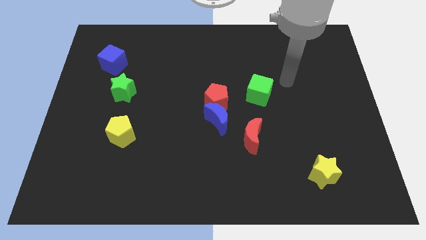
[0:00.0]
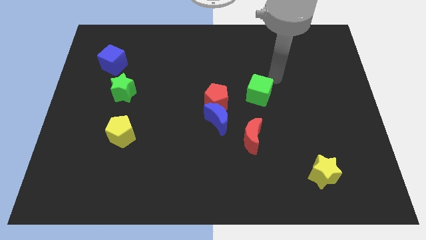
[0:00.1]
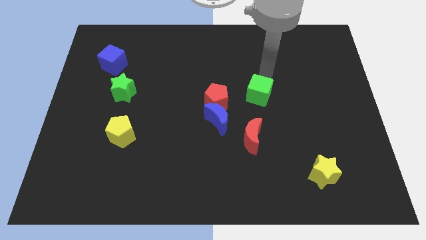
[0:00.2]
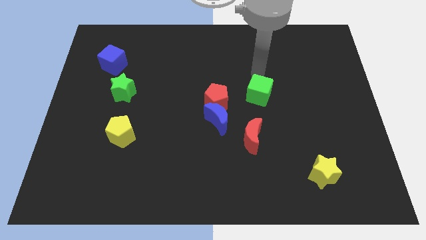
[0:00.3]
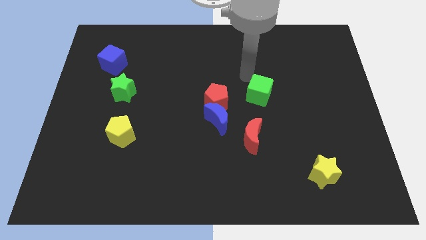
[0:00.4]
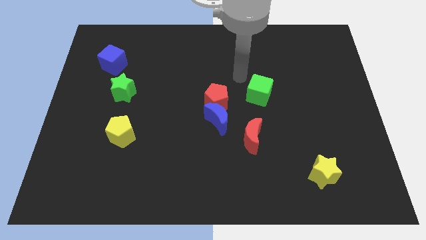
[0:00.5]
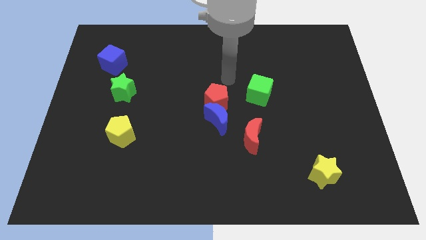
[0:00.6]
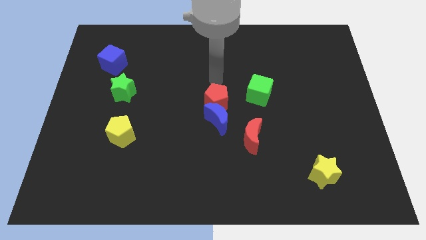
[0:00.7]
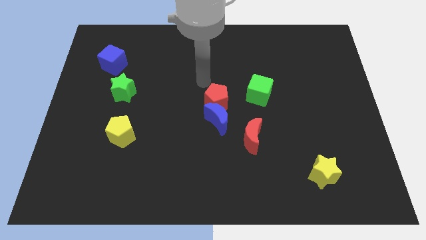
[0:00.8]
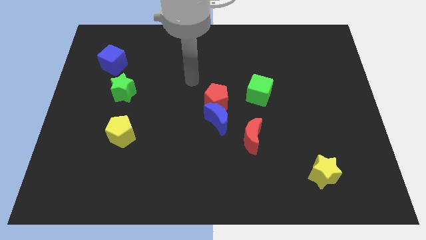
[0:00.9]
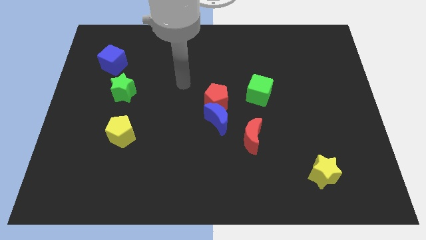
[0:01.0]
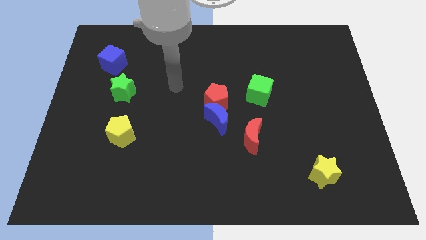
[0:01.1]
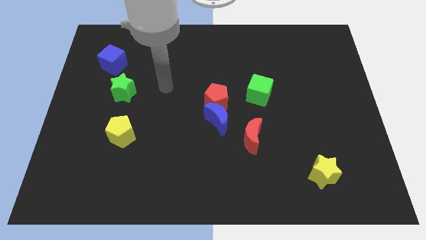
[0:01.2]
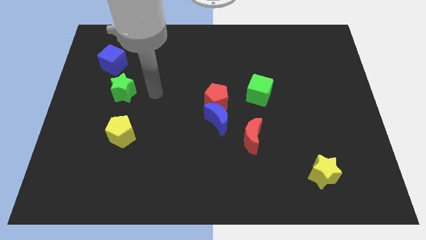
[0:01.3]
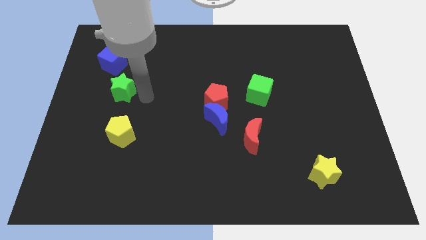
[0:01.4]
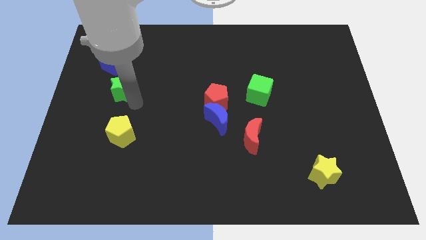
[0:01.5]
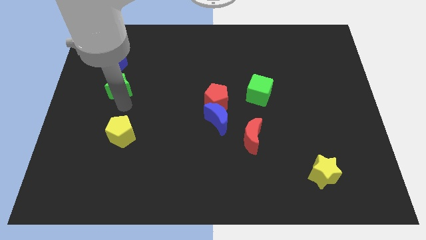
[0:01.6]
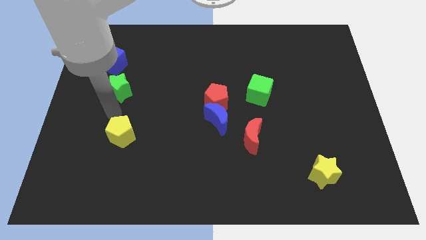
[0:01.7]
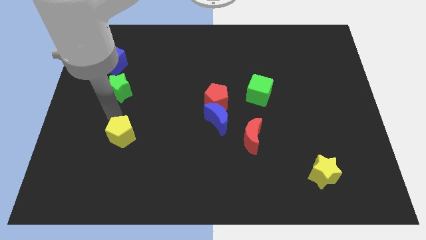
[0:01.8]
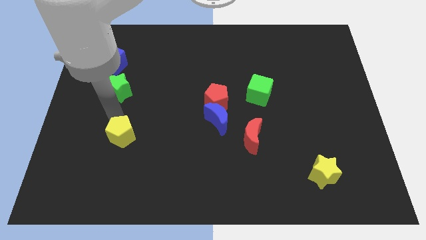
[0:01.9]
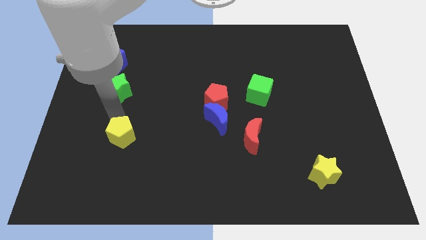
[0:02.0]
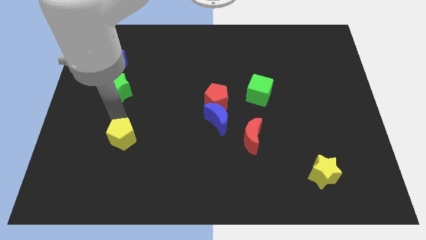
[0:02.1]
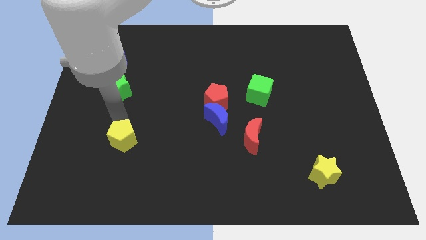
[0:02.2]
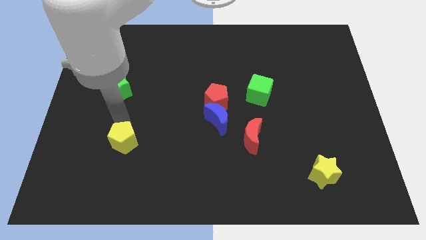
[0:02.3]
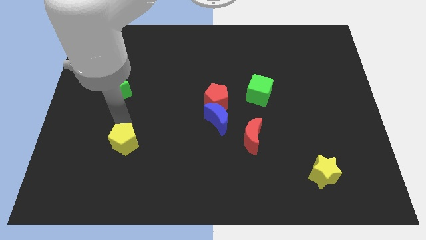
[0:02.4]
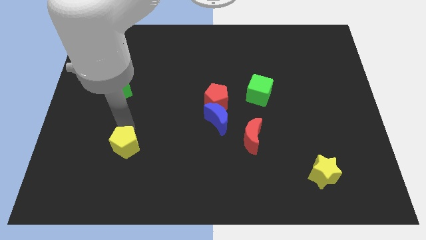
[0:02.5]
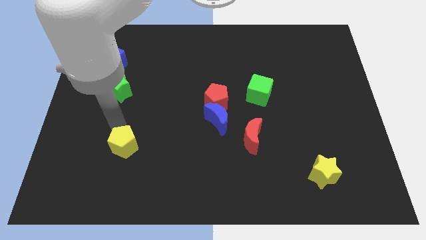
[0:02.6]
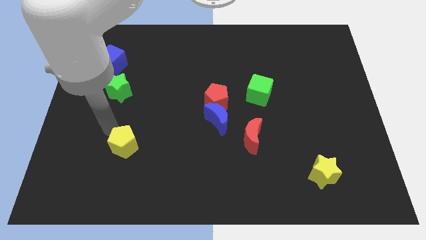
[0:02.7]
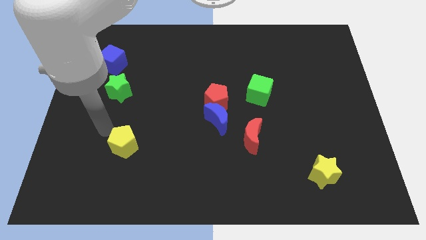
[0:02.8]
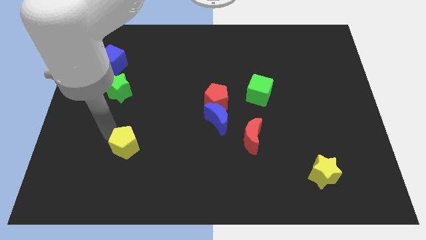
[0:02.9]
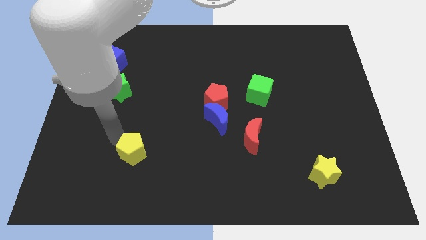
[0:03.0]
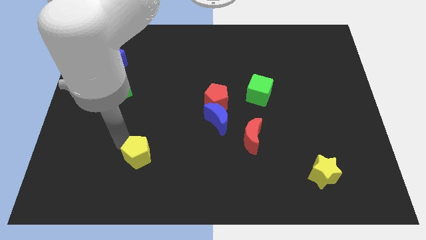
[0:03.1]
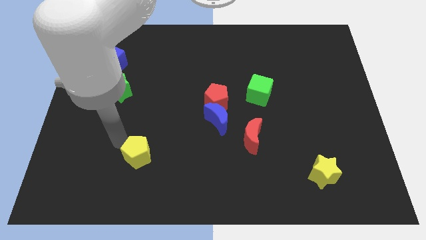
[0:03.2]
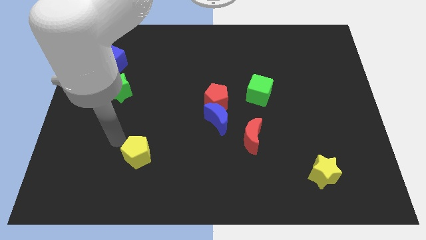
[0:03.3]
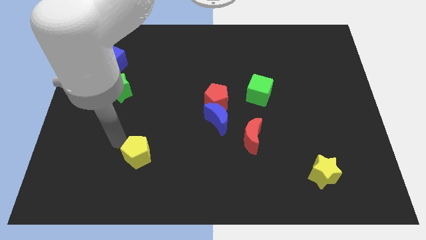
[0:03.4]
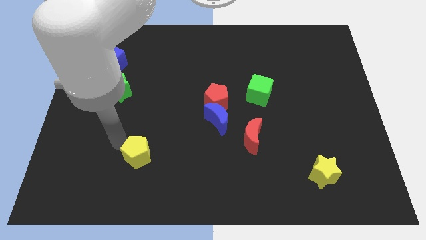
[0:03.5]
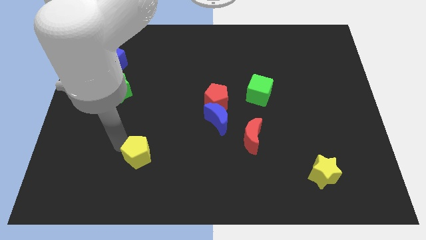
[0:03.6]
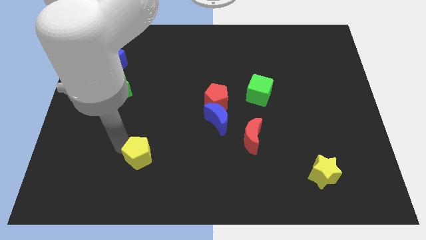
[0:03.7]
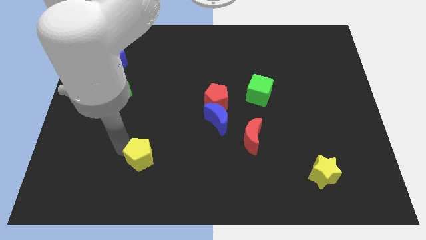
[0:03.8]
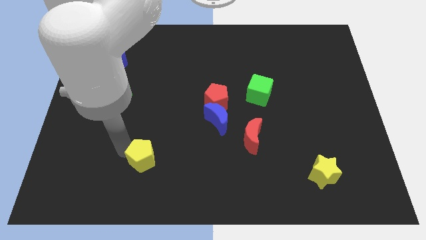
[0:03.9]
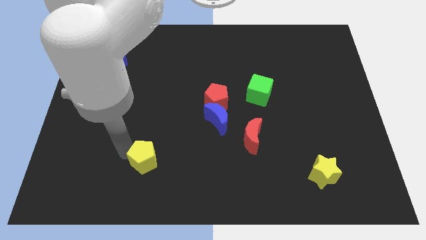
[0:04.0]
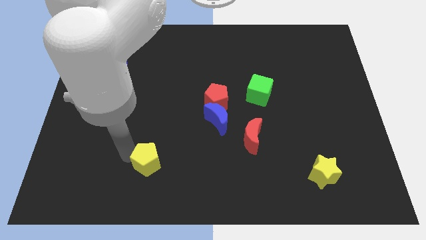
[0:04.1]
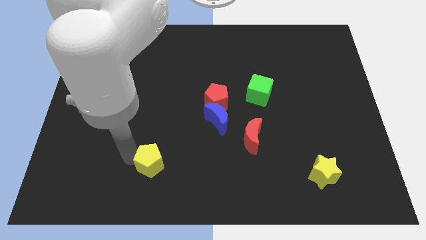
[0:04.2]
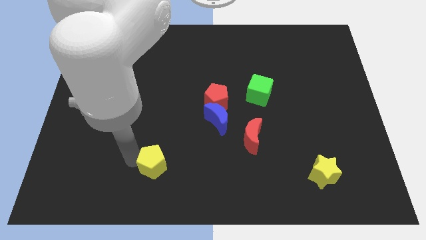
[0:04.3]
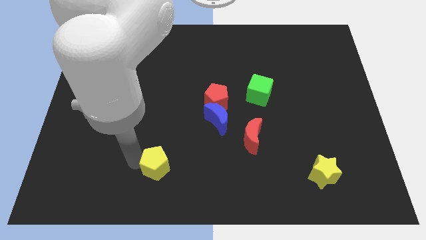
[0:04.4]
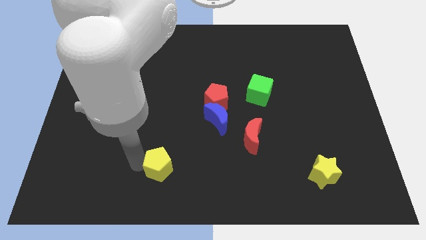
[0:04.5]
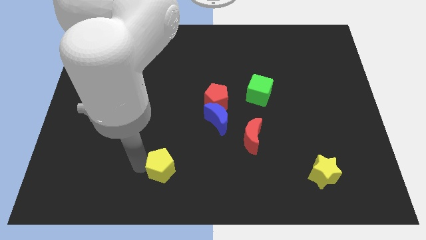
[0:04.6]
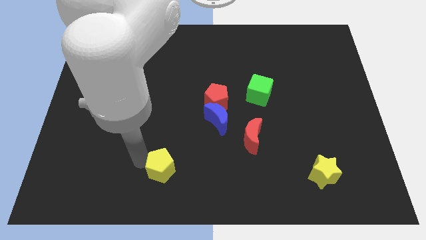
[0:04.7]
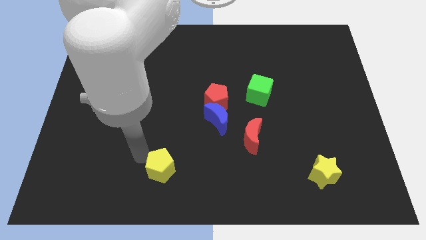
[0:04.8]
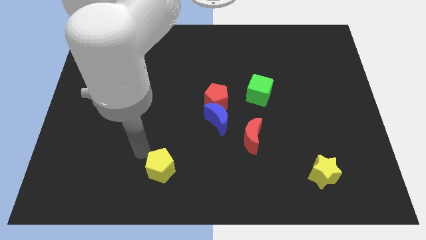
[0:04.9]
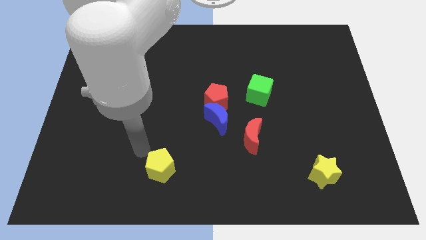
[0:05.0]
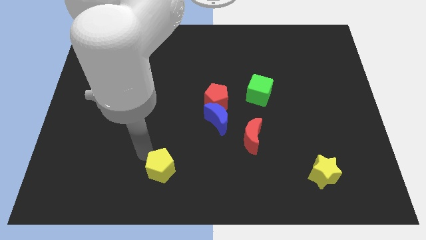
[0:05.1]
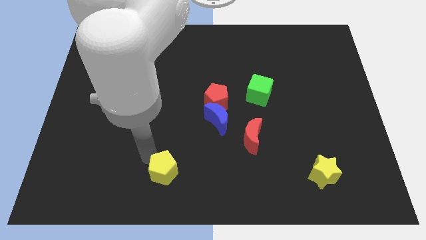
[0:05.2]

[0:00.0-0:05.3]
move the yellow pentagon to the bottom side

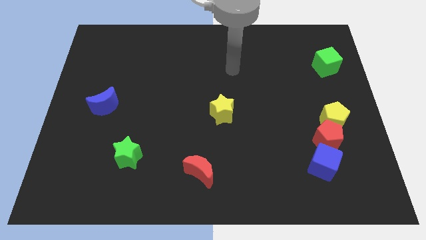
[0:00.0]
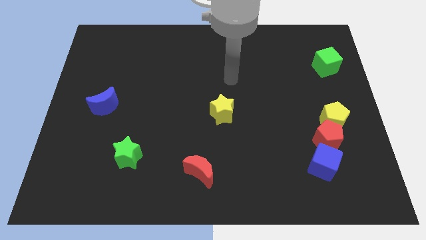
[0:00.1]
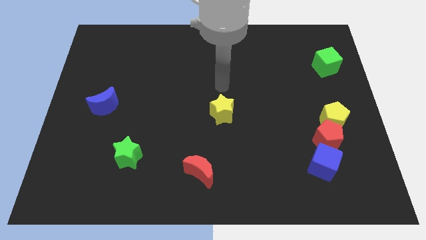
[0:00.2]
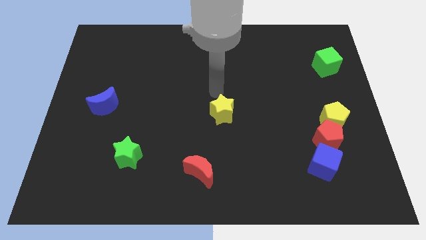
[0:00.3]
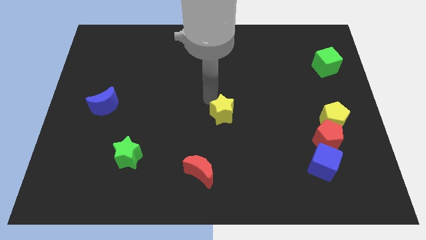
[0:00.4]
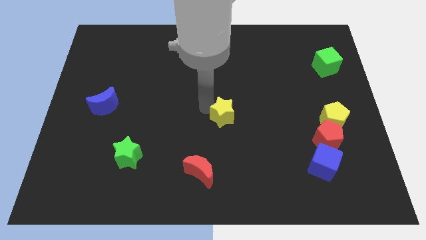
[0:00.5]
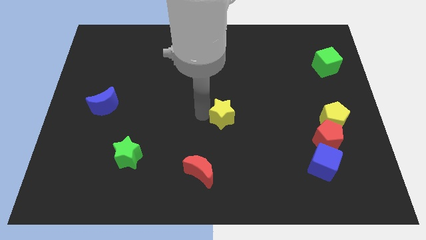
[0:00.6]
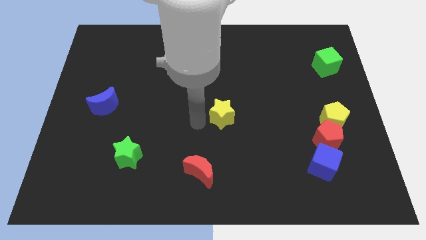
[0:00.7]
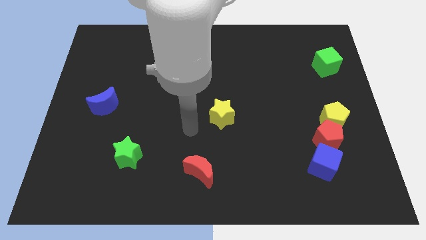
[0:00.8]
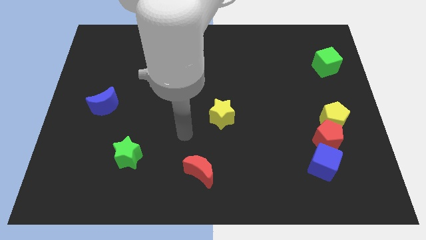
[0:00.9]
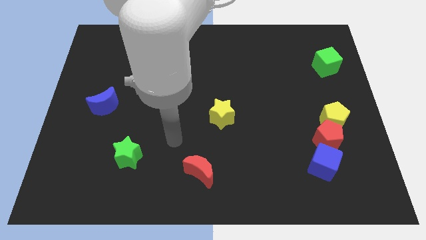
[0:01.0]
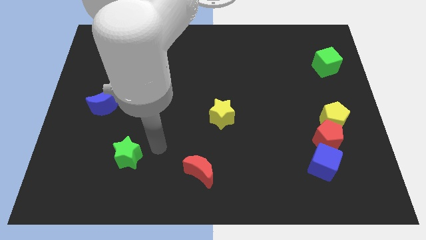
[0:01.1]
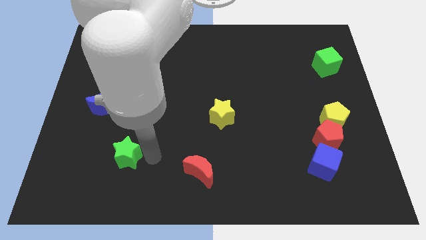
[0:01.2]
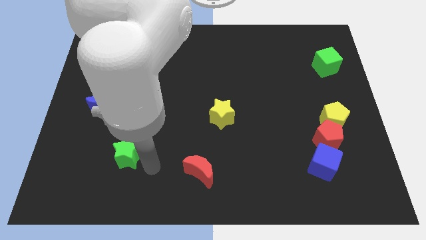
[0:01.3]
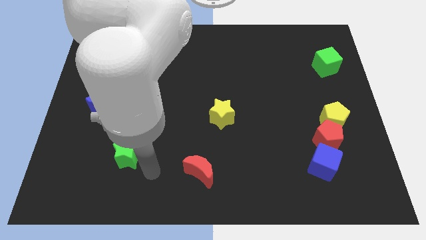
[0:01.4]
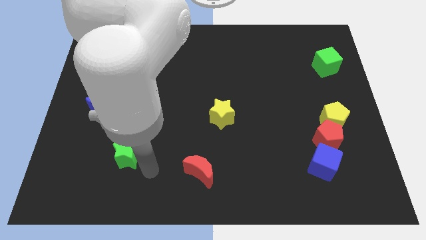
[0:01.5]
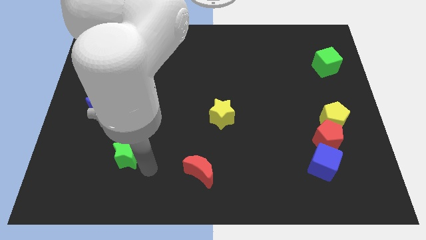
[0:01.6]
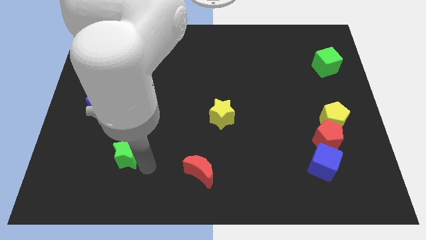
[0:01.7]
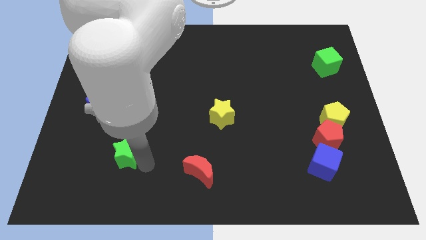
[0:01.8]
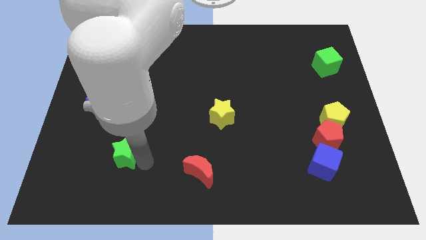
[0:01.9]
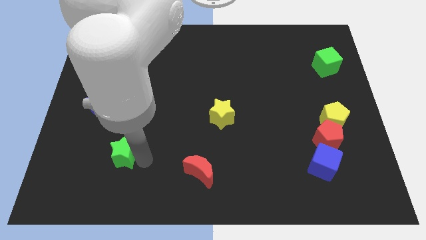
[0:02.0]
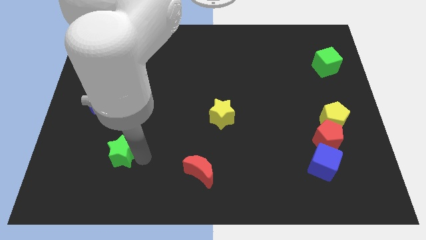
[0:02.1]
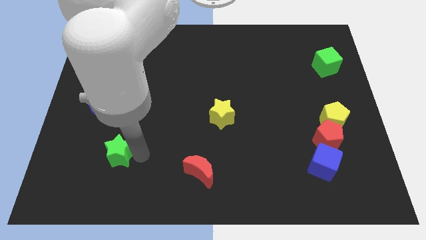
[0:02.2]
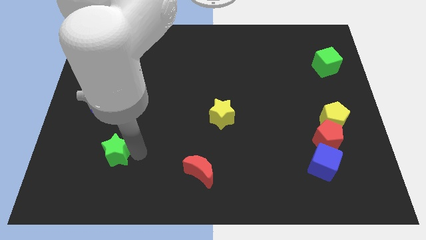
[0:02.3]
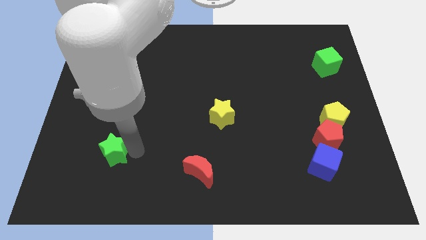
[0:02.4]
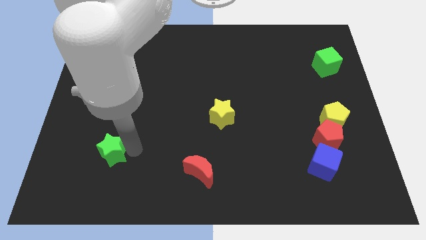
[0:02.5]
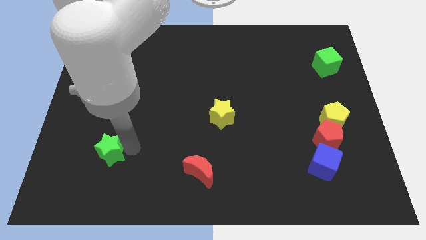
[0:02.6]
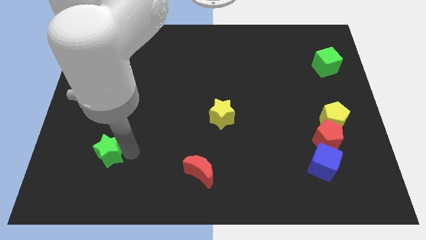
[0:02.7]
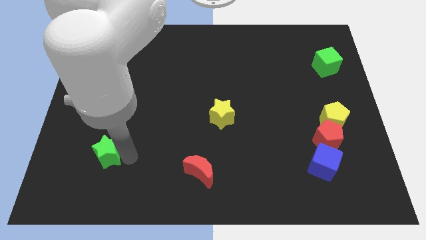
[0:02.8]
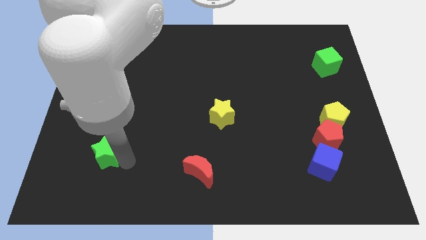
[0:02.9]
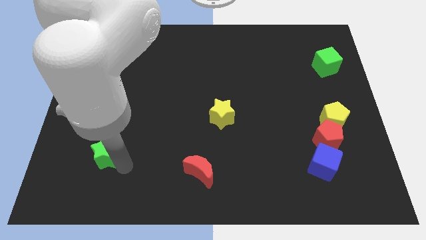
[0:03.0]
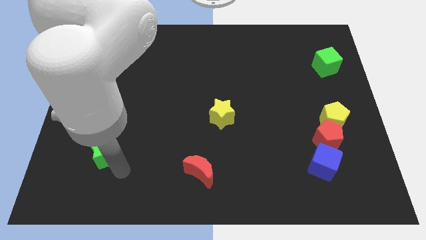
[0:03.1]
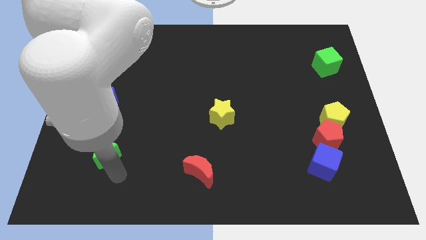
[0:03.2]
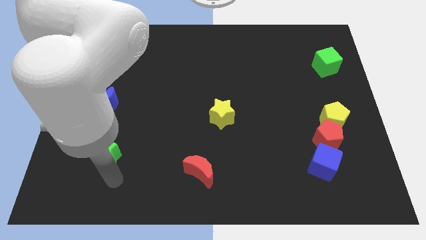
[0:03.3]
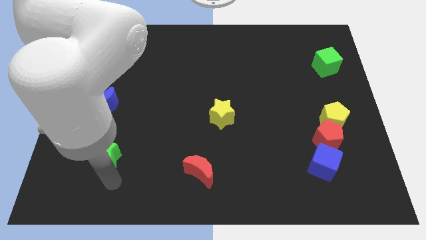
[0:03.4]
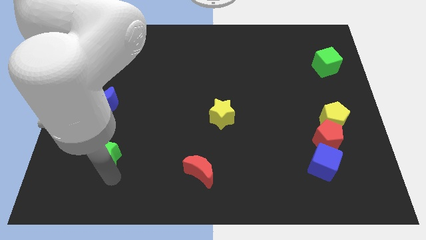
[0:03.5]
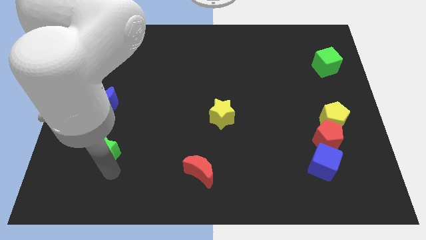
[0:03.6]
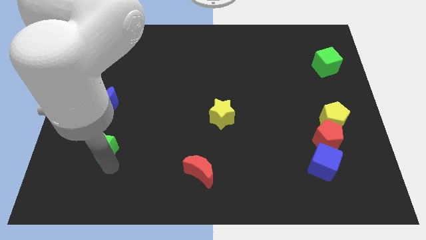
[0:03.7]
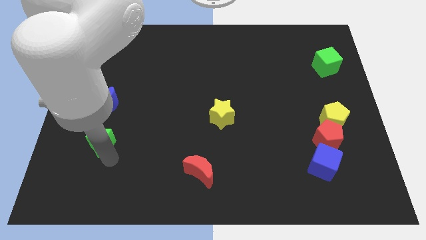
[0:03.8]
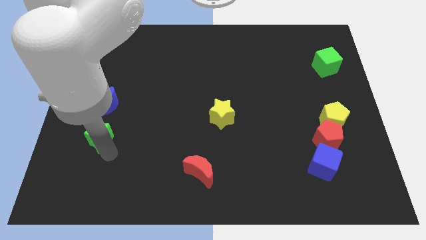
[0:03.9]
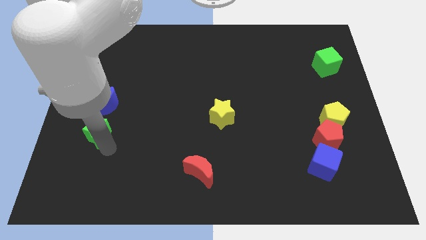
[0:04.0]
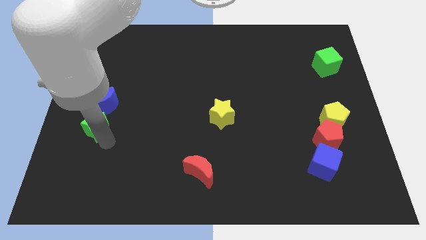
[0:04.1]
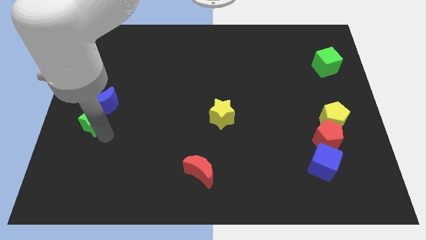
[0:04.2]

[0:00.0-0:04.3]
slide the green star to the left side of the board
